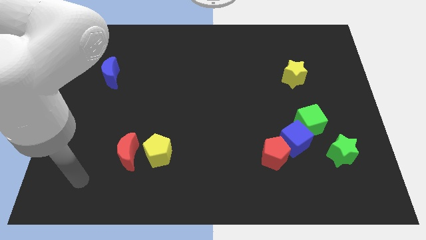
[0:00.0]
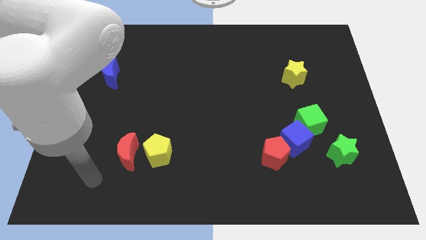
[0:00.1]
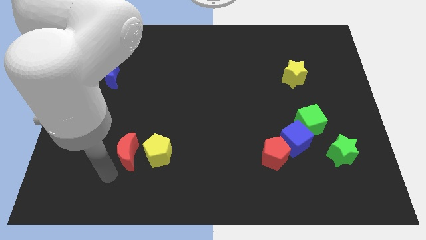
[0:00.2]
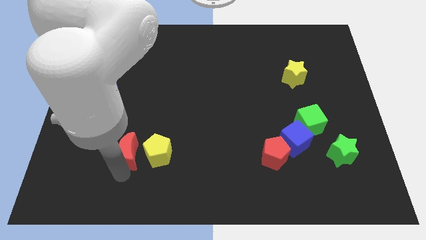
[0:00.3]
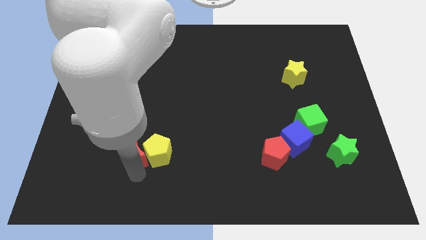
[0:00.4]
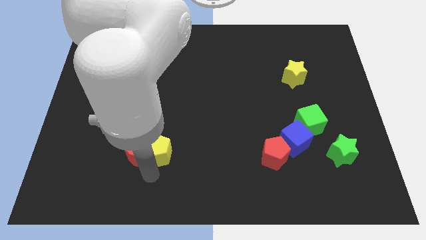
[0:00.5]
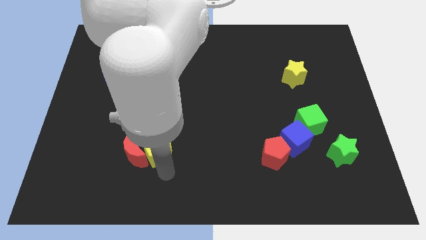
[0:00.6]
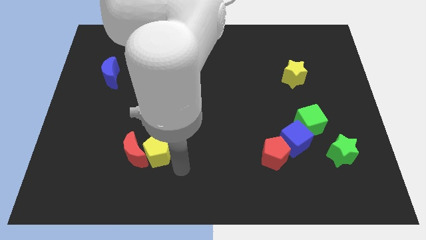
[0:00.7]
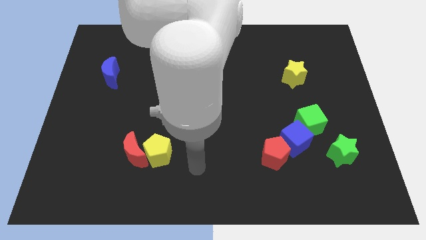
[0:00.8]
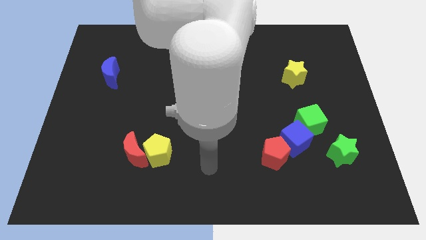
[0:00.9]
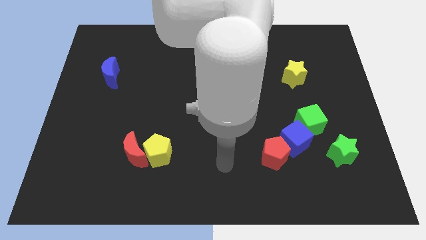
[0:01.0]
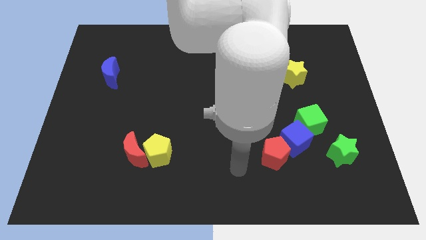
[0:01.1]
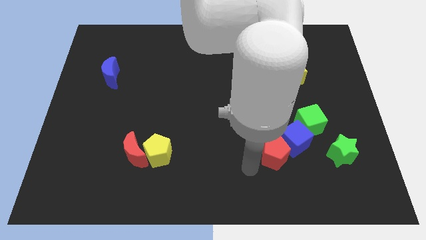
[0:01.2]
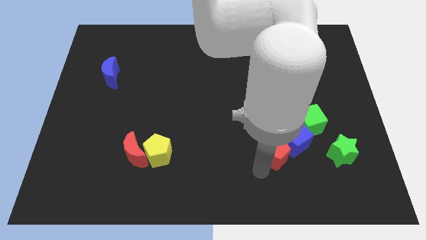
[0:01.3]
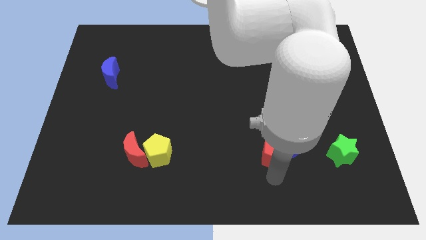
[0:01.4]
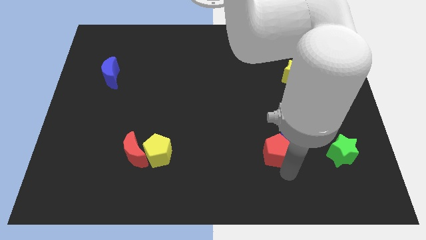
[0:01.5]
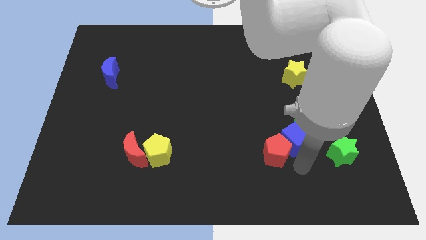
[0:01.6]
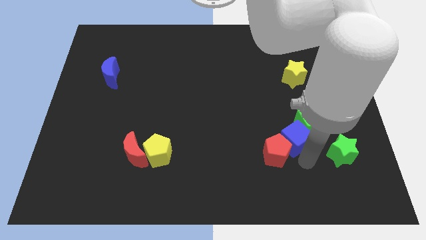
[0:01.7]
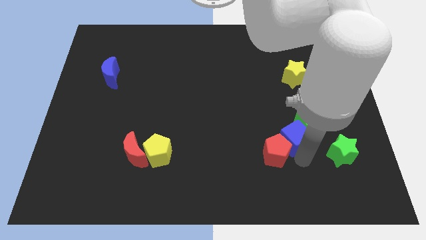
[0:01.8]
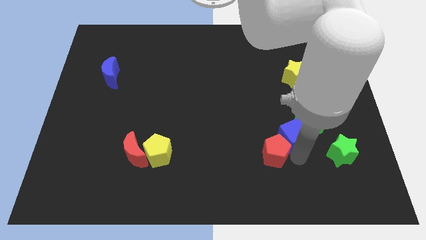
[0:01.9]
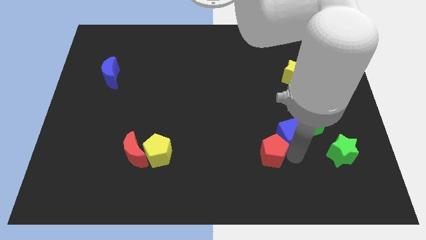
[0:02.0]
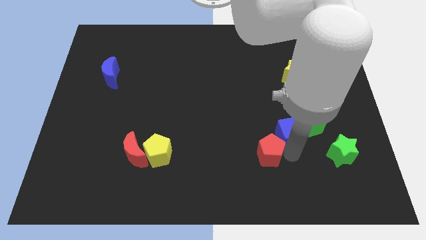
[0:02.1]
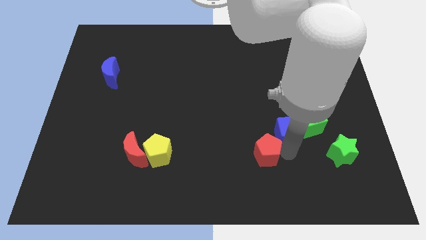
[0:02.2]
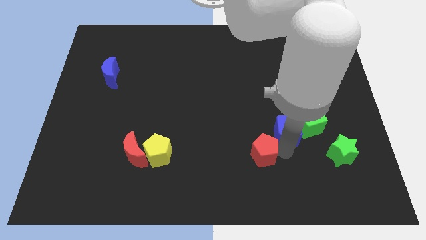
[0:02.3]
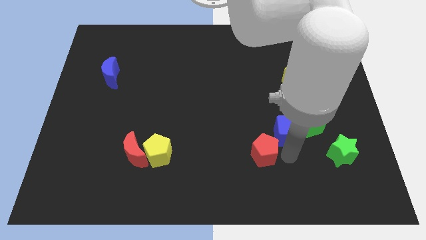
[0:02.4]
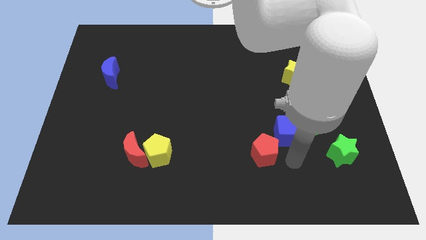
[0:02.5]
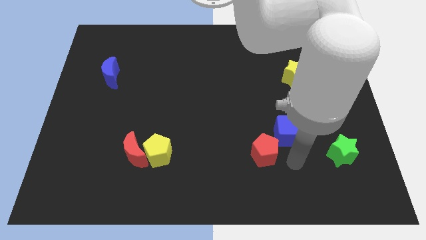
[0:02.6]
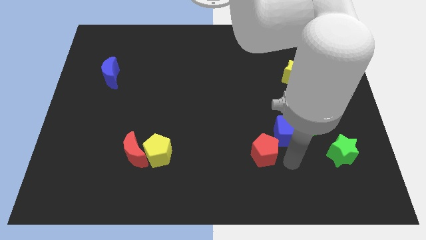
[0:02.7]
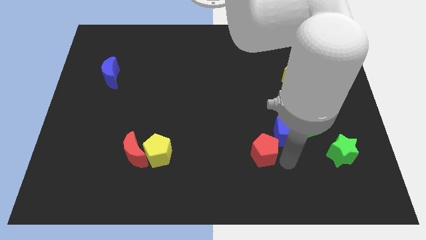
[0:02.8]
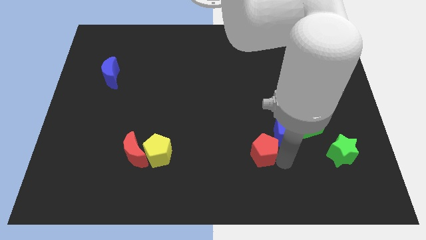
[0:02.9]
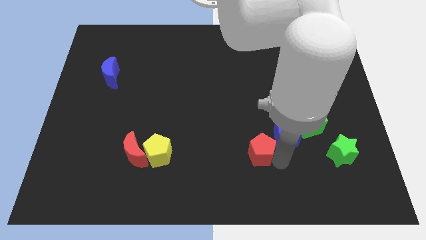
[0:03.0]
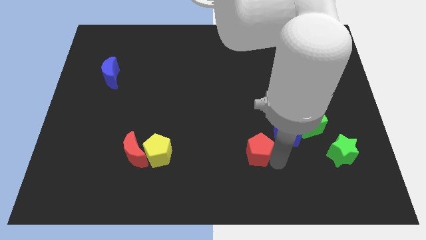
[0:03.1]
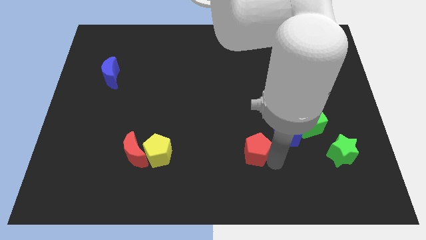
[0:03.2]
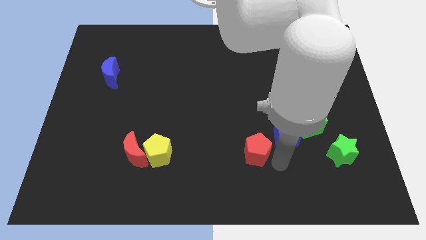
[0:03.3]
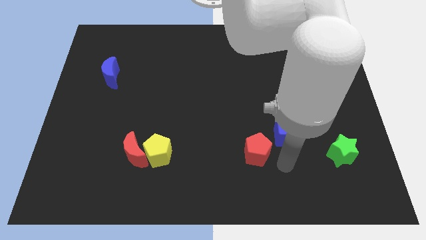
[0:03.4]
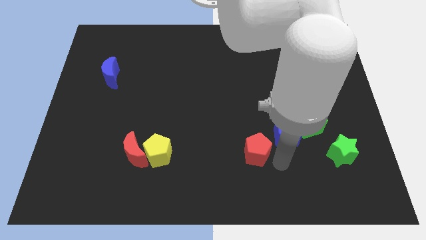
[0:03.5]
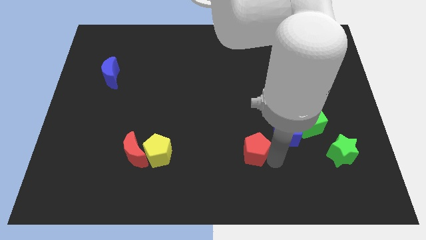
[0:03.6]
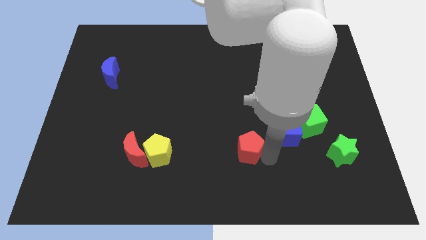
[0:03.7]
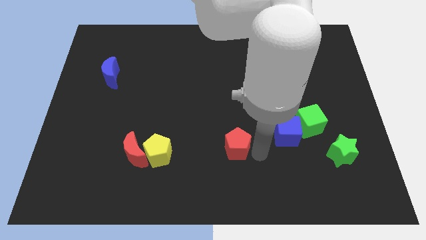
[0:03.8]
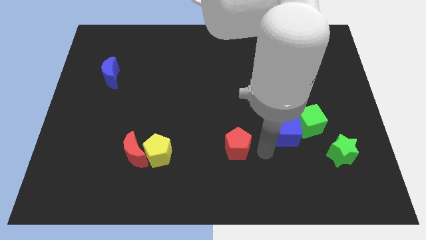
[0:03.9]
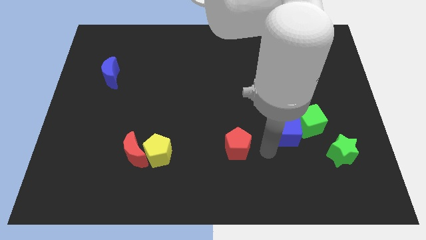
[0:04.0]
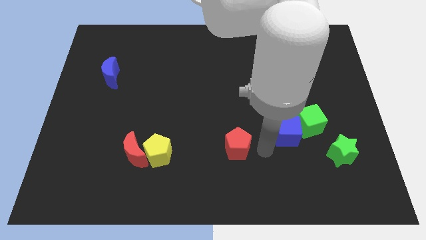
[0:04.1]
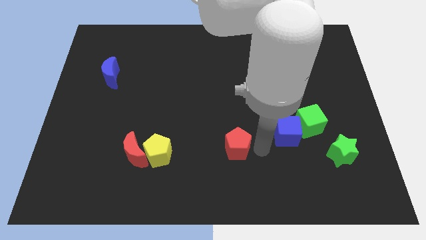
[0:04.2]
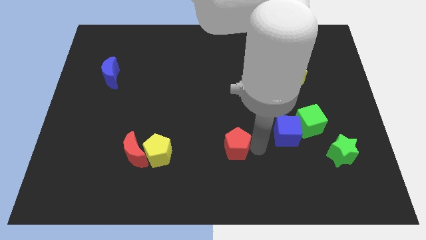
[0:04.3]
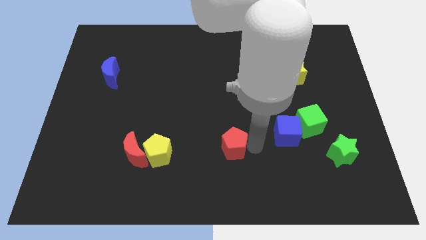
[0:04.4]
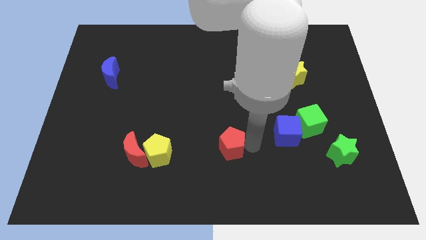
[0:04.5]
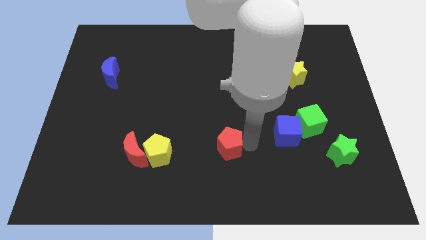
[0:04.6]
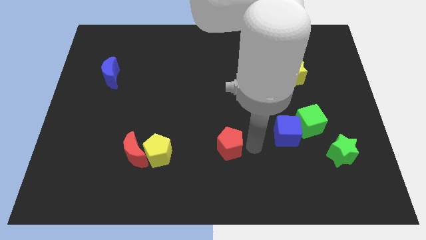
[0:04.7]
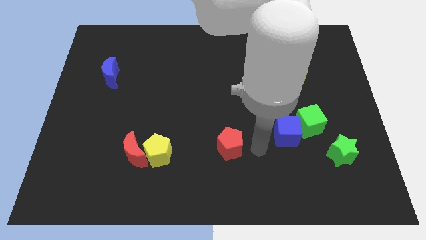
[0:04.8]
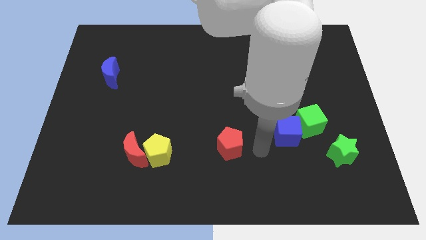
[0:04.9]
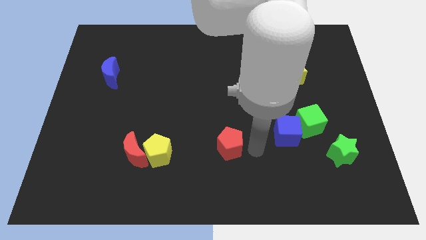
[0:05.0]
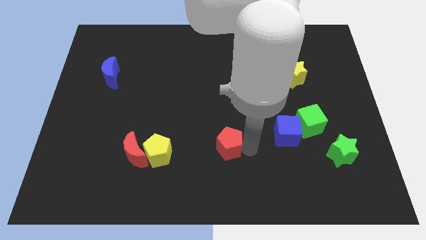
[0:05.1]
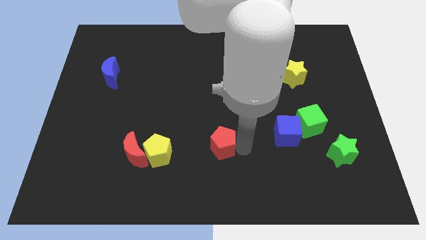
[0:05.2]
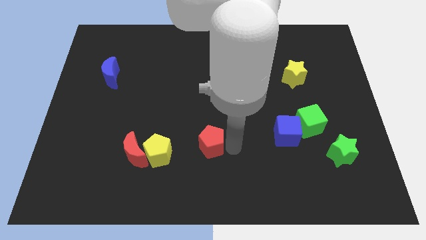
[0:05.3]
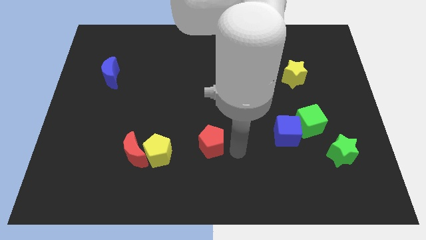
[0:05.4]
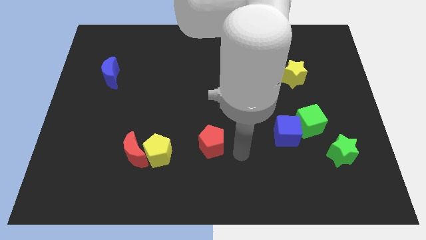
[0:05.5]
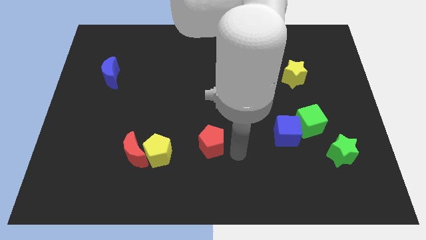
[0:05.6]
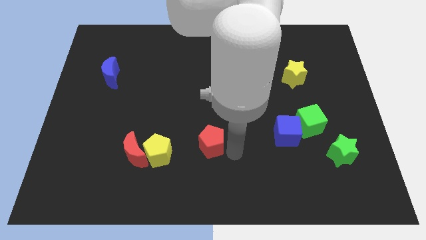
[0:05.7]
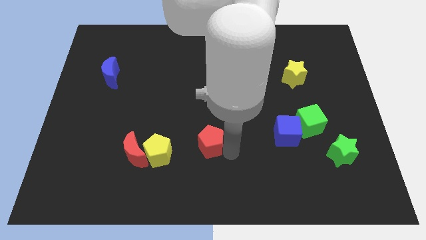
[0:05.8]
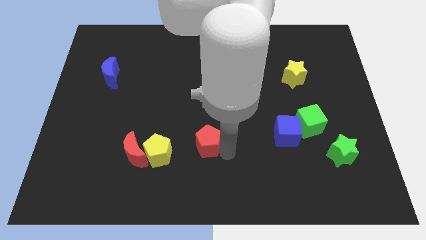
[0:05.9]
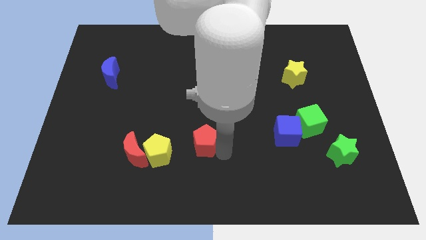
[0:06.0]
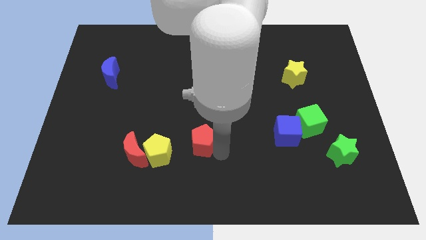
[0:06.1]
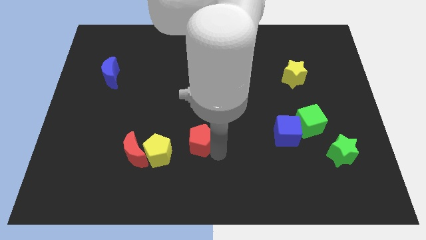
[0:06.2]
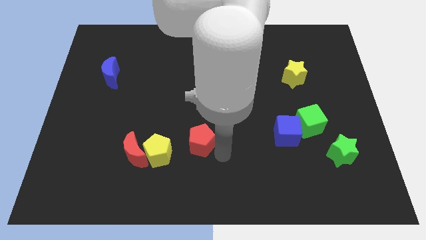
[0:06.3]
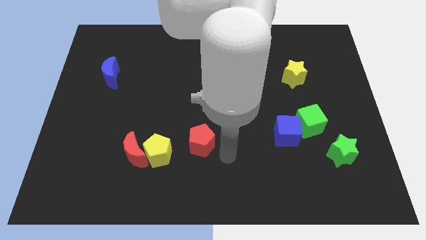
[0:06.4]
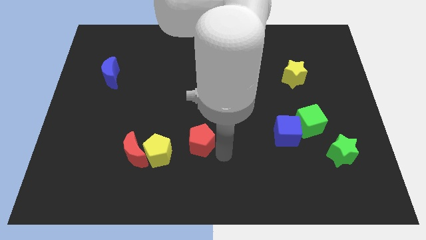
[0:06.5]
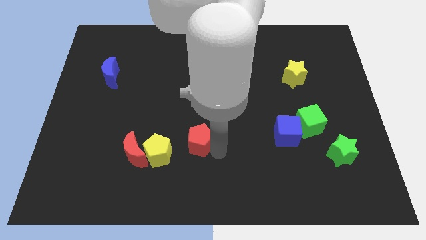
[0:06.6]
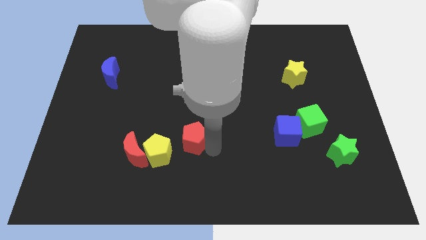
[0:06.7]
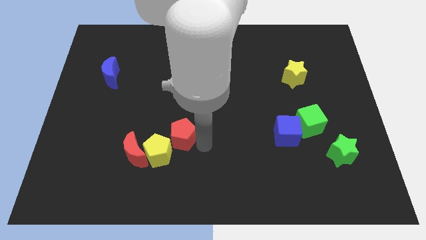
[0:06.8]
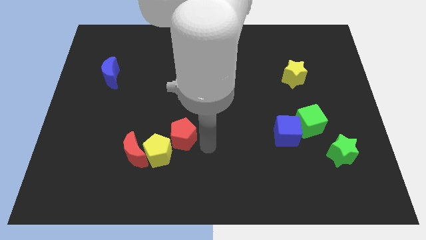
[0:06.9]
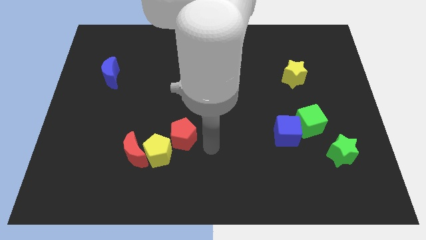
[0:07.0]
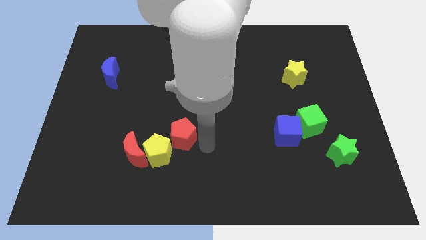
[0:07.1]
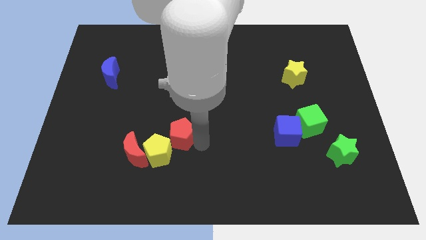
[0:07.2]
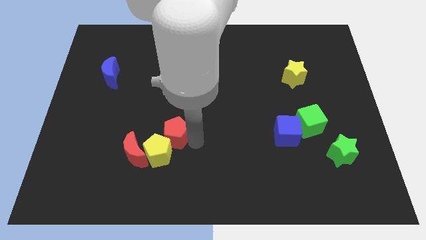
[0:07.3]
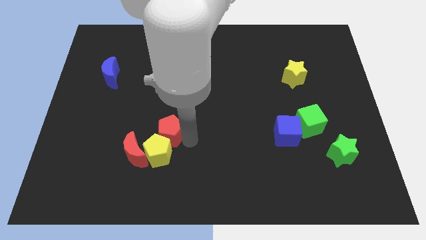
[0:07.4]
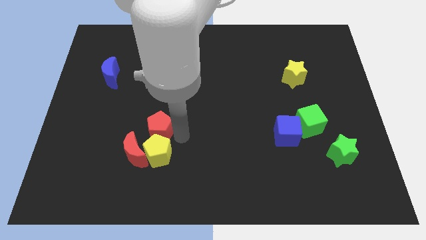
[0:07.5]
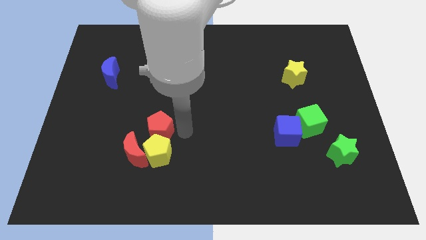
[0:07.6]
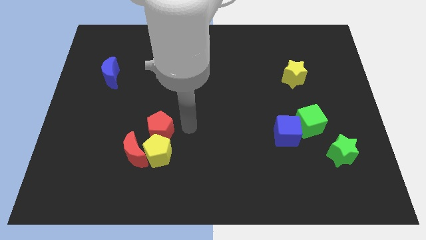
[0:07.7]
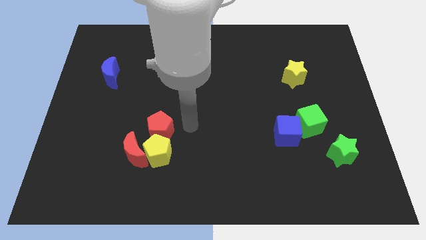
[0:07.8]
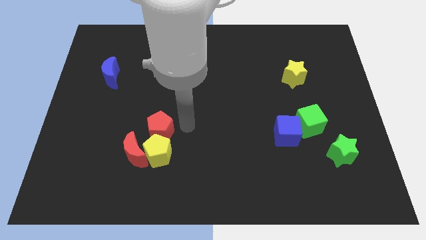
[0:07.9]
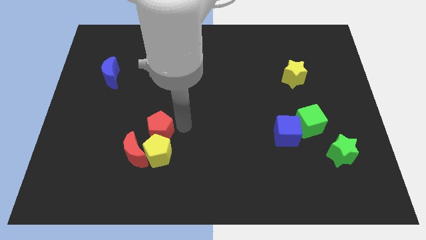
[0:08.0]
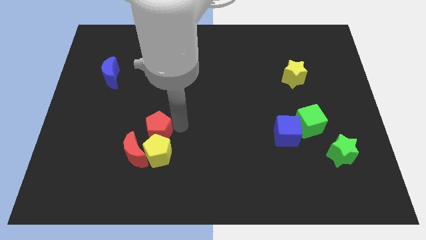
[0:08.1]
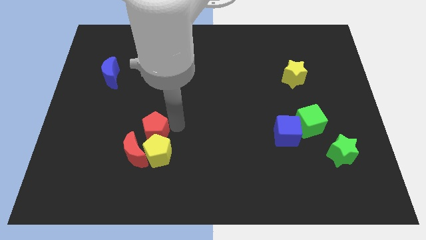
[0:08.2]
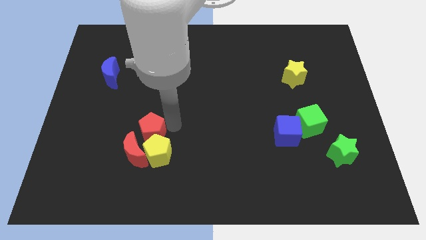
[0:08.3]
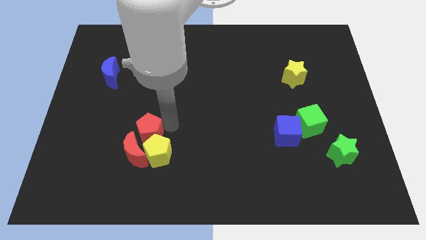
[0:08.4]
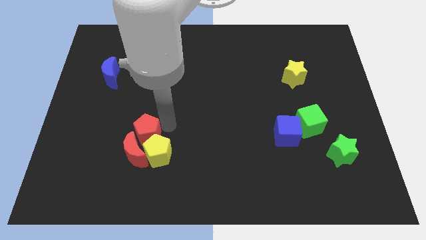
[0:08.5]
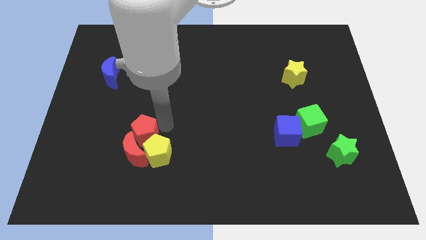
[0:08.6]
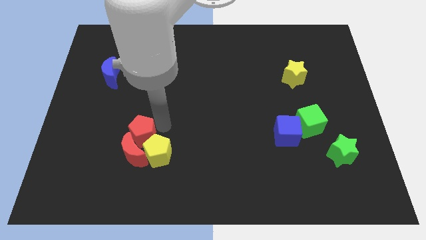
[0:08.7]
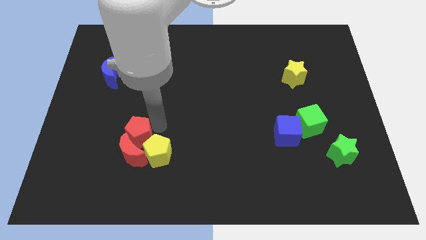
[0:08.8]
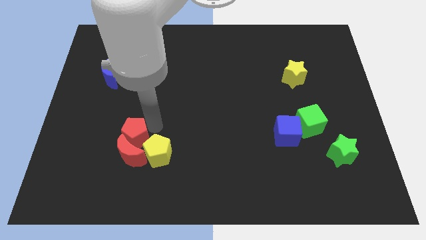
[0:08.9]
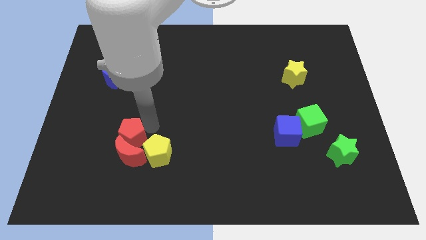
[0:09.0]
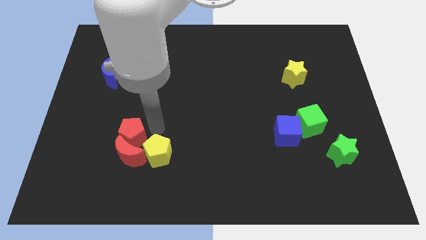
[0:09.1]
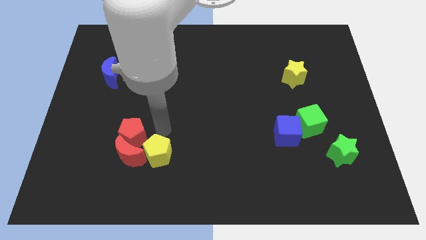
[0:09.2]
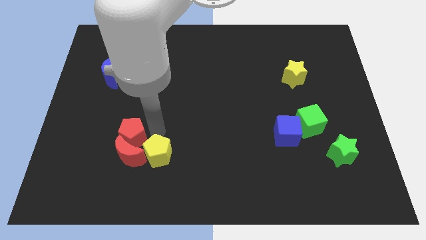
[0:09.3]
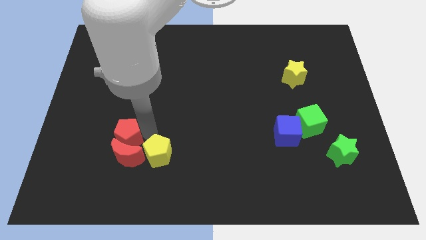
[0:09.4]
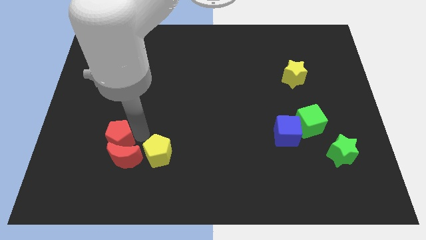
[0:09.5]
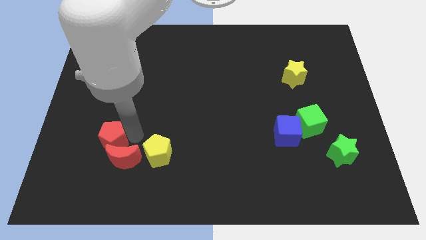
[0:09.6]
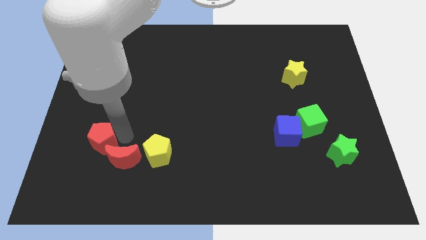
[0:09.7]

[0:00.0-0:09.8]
push the red pentagon to the left of the red moon
